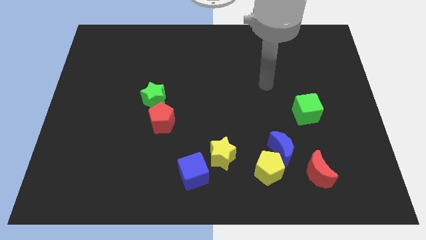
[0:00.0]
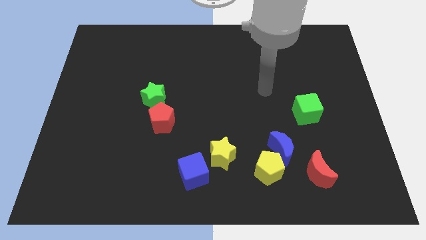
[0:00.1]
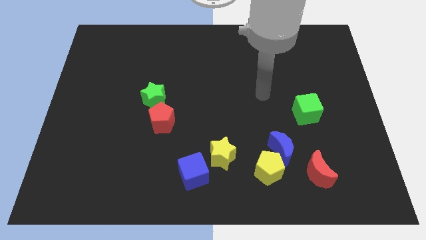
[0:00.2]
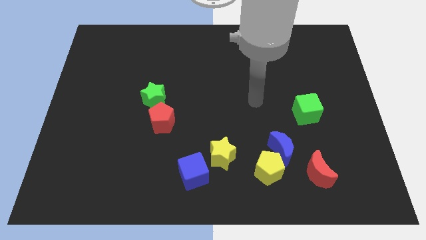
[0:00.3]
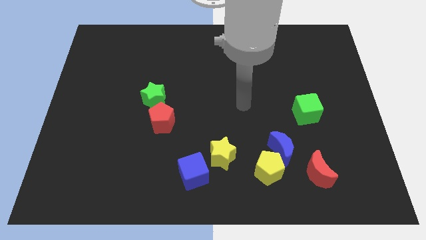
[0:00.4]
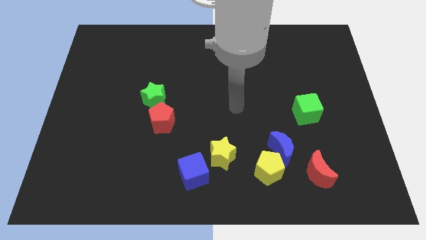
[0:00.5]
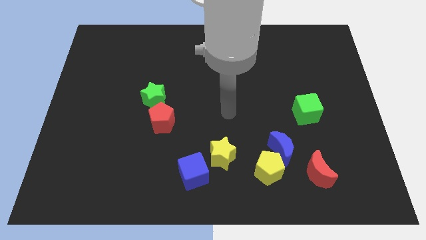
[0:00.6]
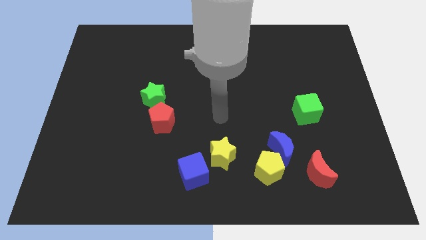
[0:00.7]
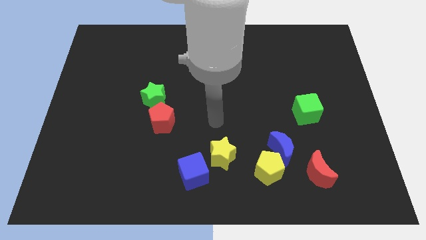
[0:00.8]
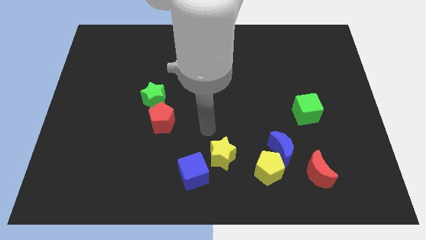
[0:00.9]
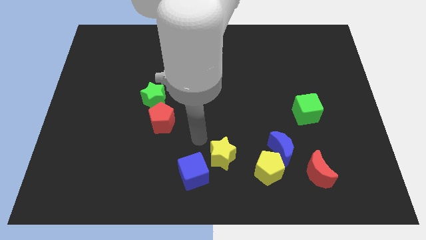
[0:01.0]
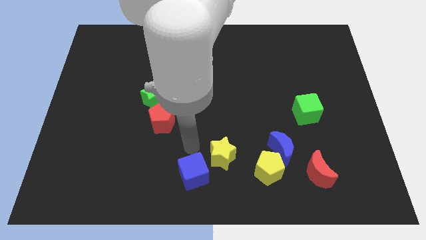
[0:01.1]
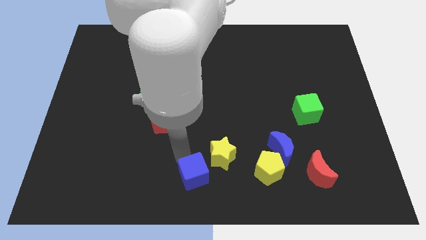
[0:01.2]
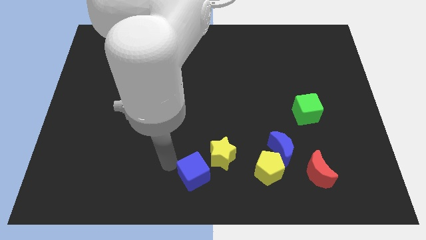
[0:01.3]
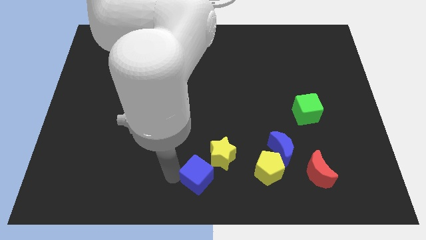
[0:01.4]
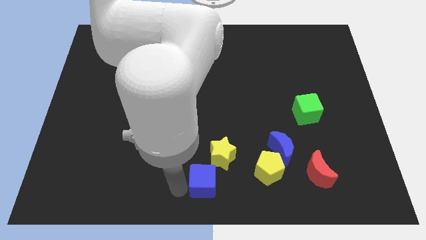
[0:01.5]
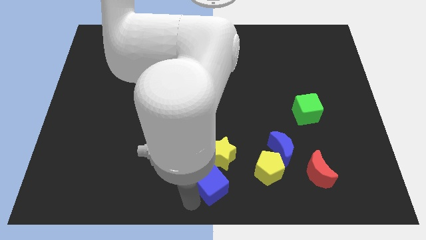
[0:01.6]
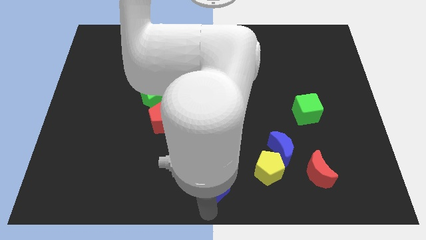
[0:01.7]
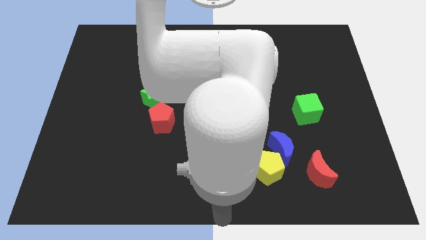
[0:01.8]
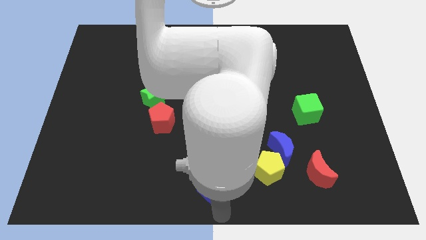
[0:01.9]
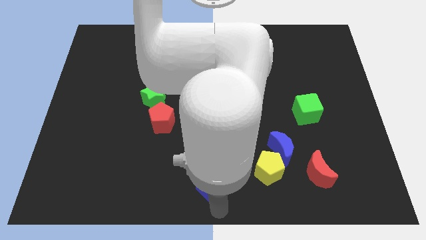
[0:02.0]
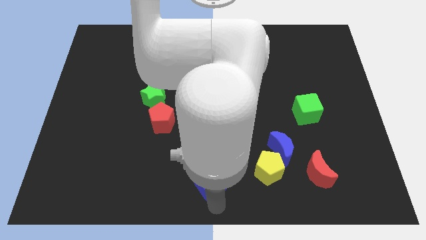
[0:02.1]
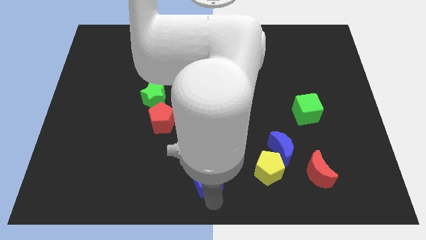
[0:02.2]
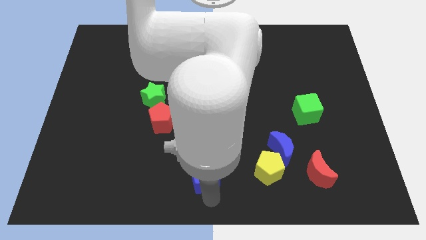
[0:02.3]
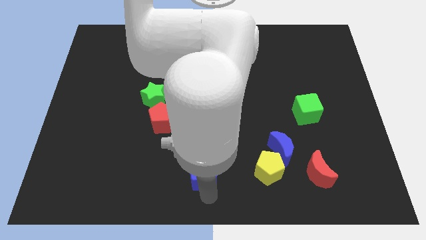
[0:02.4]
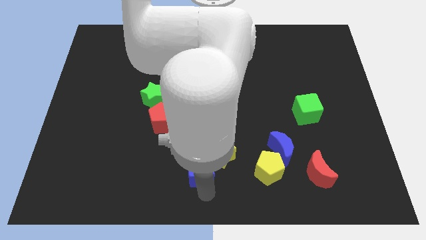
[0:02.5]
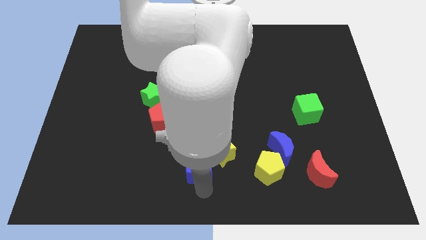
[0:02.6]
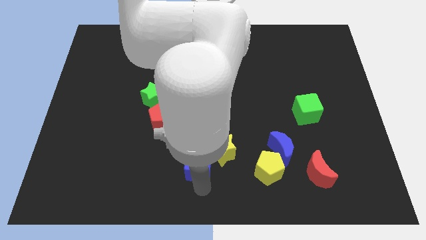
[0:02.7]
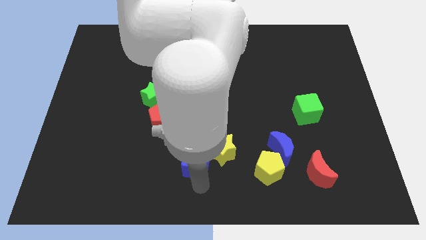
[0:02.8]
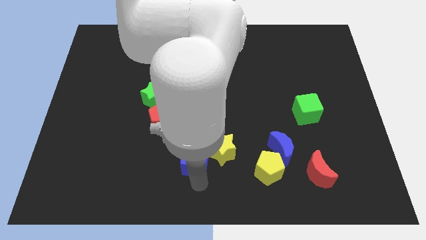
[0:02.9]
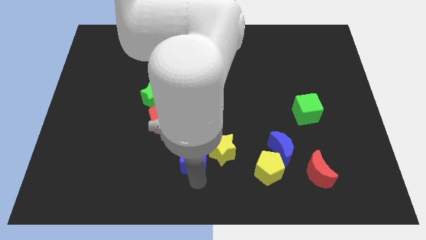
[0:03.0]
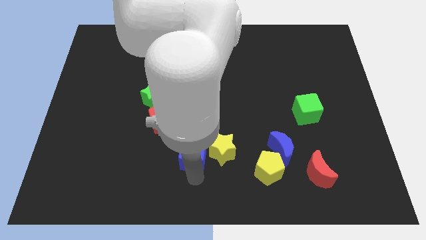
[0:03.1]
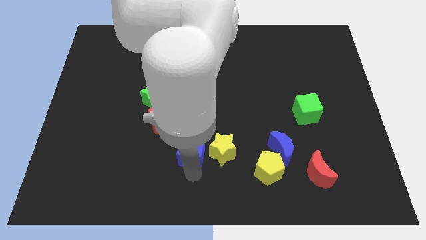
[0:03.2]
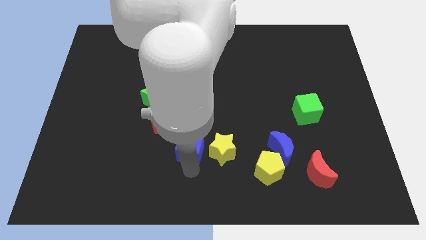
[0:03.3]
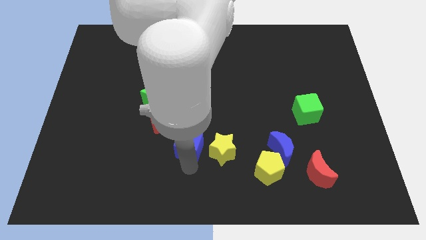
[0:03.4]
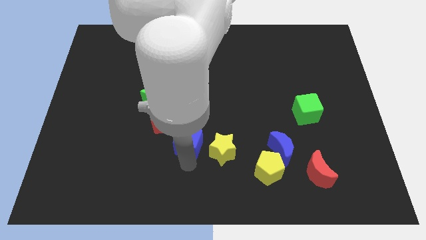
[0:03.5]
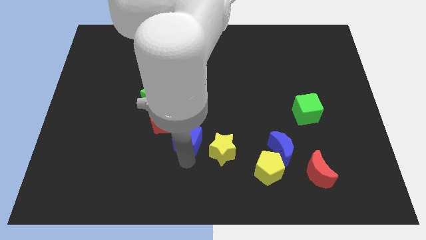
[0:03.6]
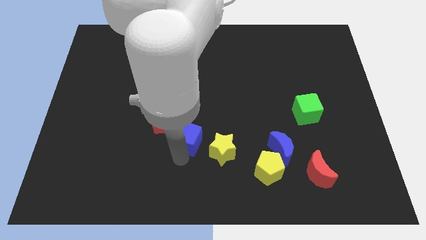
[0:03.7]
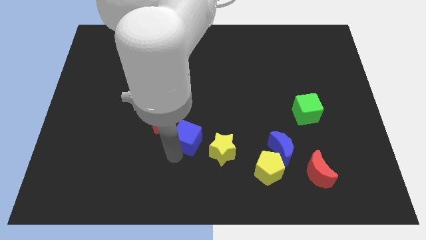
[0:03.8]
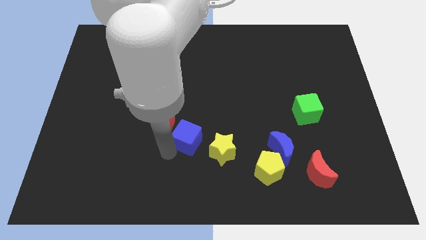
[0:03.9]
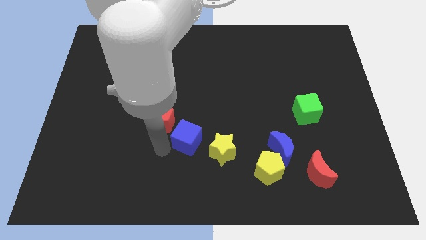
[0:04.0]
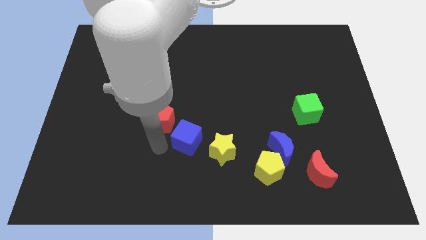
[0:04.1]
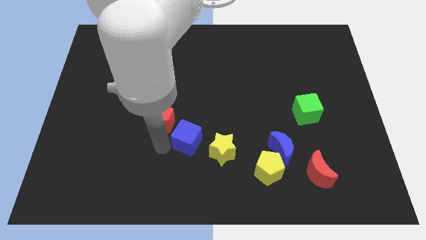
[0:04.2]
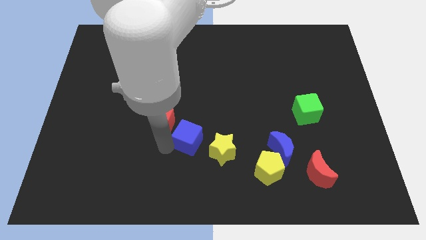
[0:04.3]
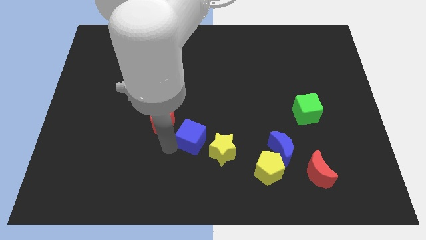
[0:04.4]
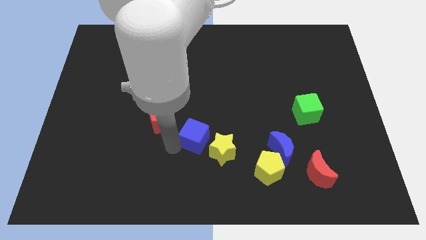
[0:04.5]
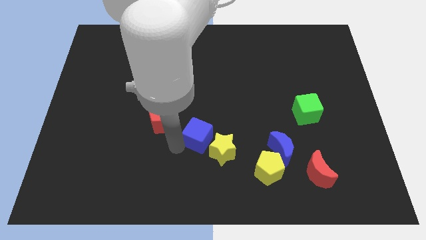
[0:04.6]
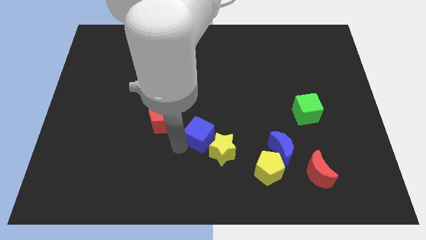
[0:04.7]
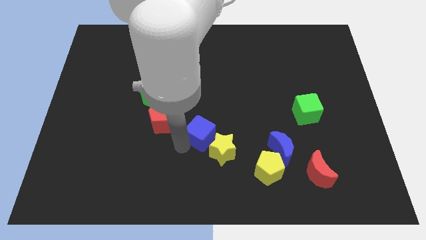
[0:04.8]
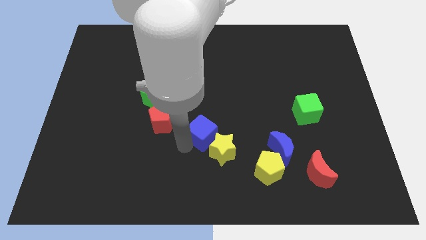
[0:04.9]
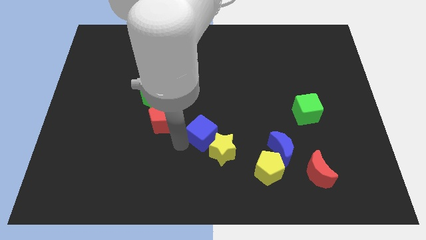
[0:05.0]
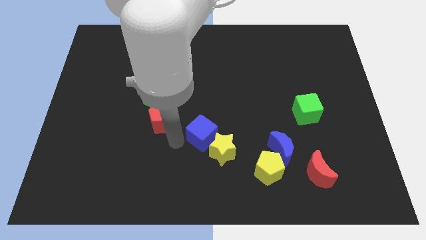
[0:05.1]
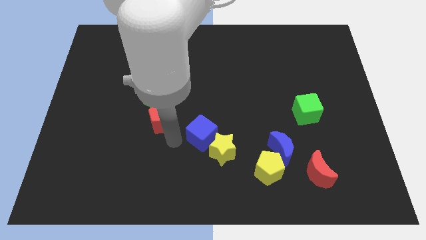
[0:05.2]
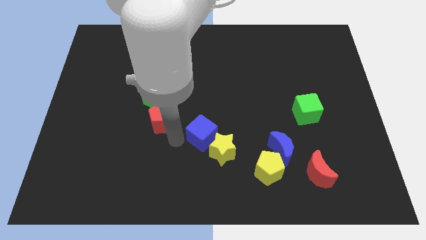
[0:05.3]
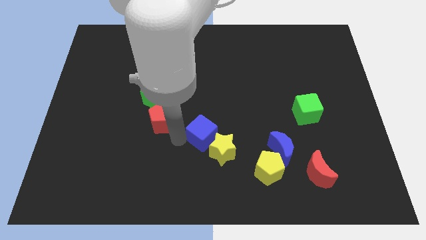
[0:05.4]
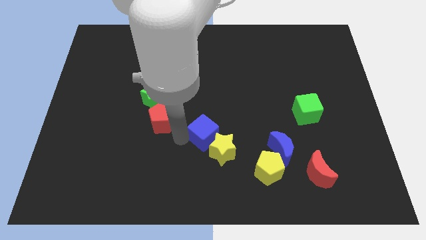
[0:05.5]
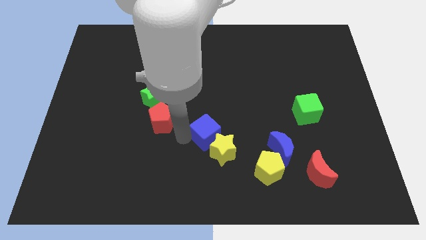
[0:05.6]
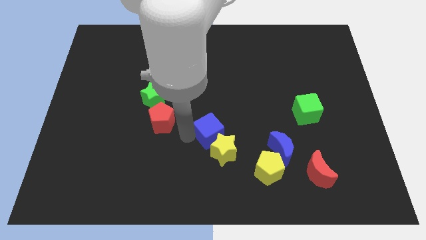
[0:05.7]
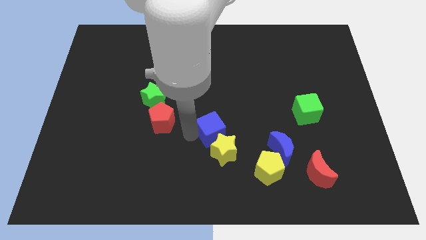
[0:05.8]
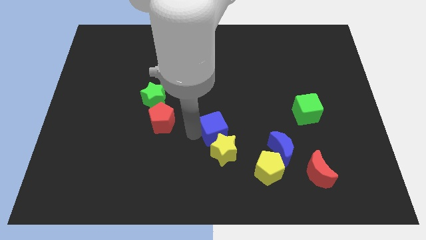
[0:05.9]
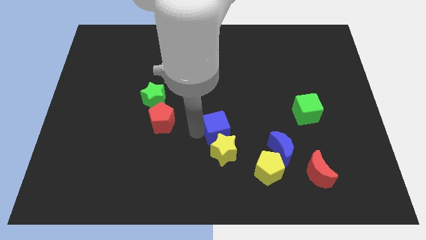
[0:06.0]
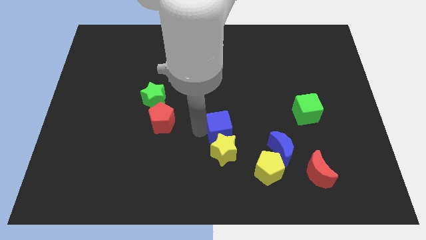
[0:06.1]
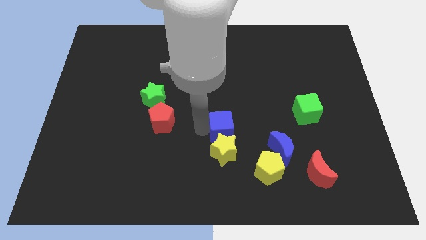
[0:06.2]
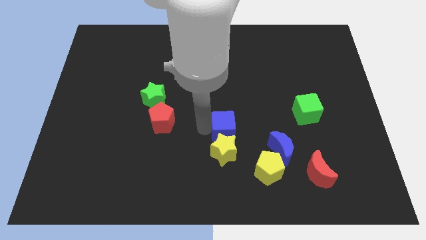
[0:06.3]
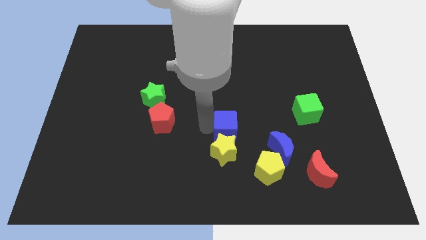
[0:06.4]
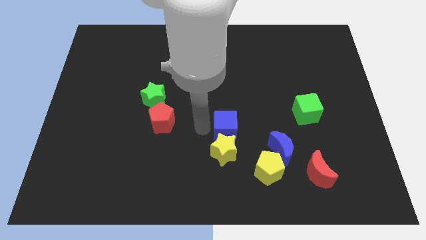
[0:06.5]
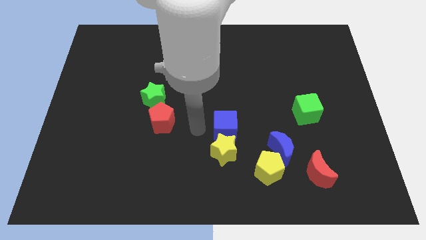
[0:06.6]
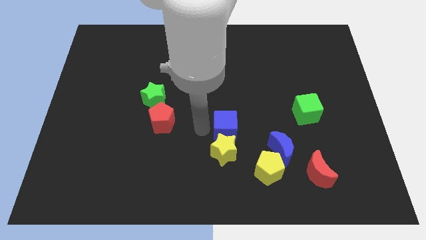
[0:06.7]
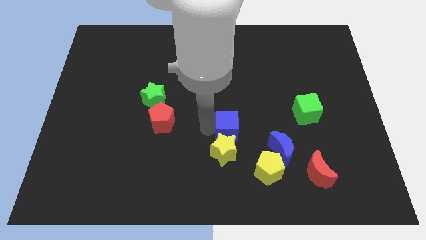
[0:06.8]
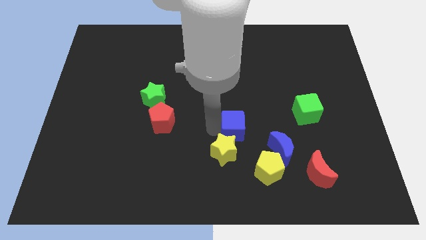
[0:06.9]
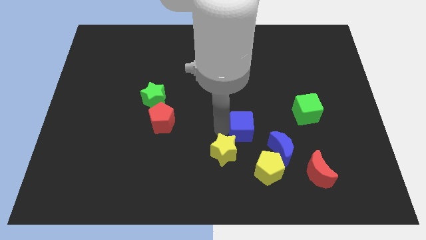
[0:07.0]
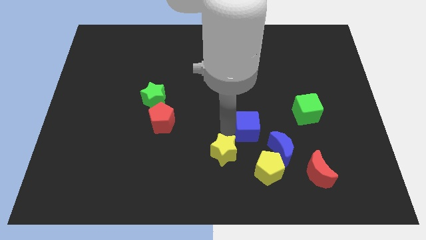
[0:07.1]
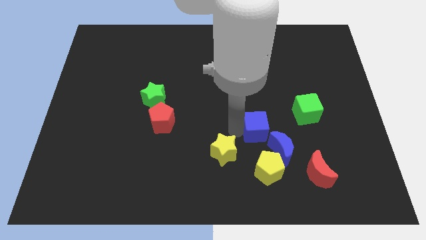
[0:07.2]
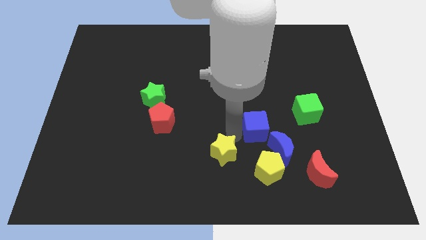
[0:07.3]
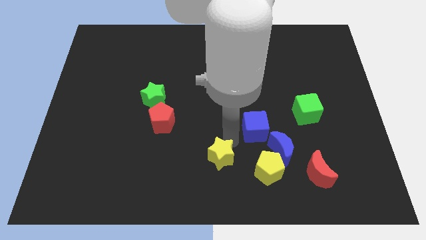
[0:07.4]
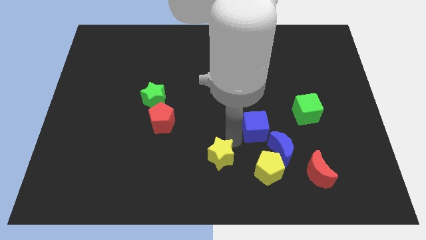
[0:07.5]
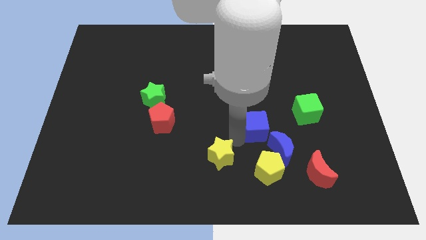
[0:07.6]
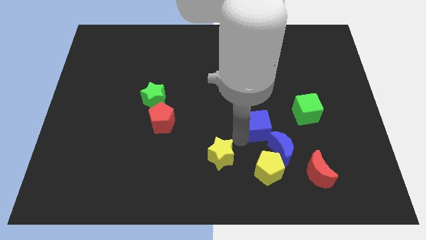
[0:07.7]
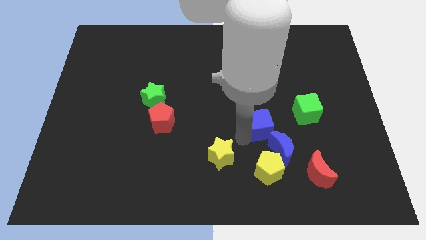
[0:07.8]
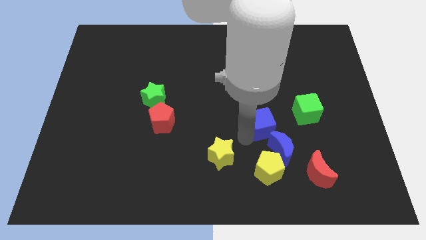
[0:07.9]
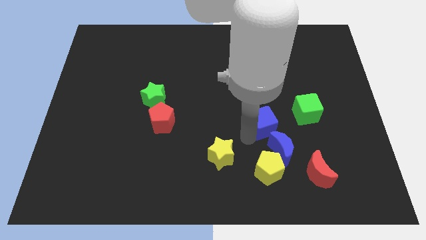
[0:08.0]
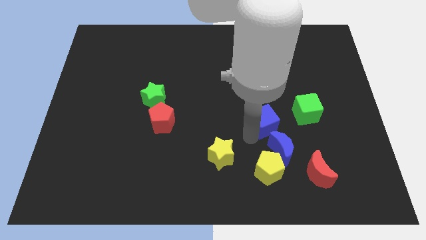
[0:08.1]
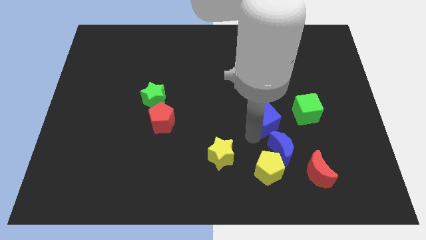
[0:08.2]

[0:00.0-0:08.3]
slide the blue cube to the bottom left side of the green cube
